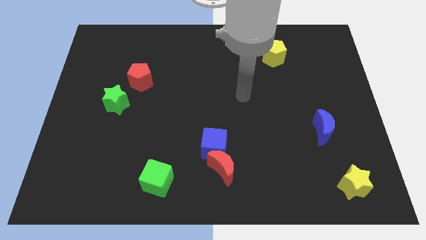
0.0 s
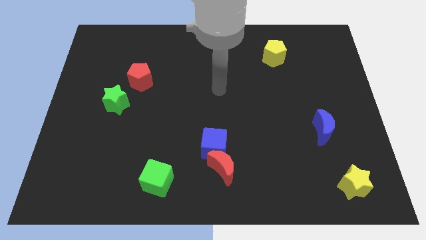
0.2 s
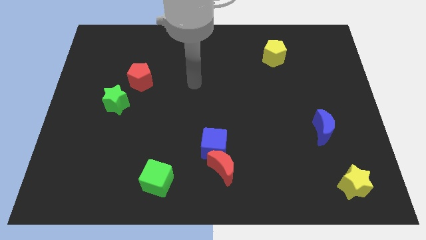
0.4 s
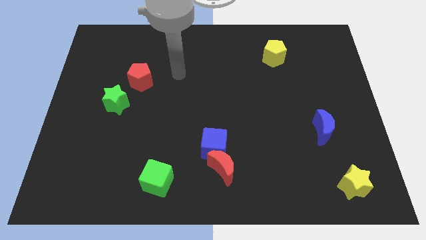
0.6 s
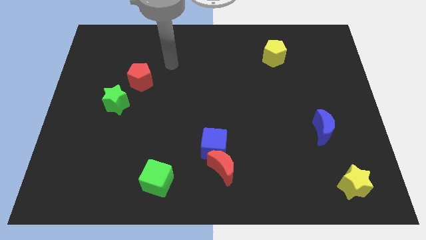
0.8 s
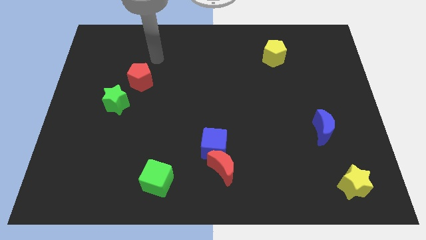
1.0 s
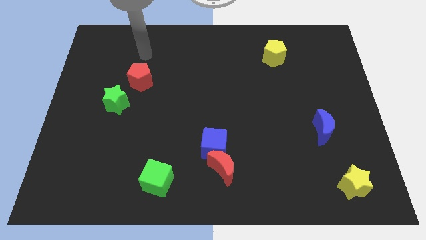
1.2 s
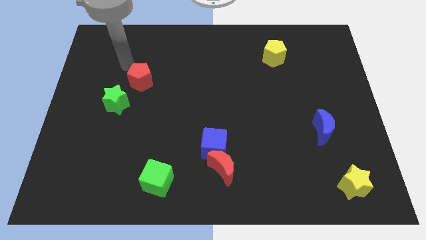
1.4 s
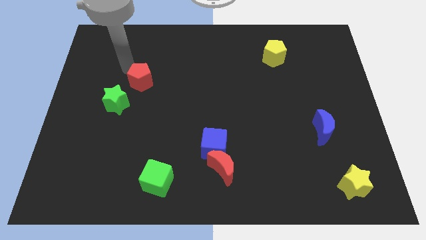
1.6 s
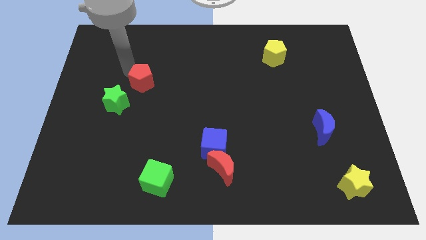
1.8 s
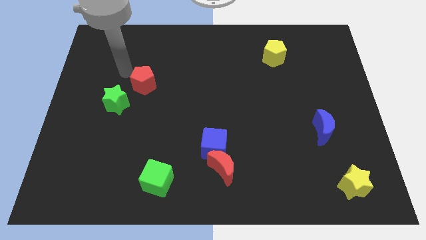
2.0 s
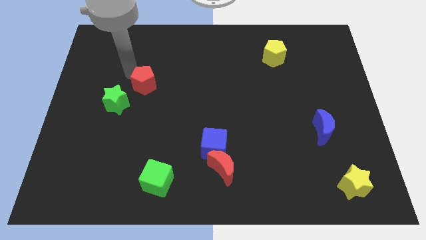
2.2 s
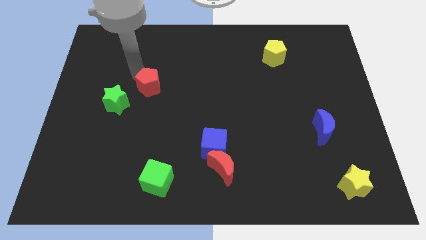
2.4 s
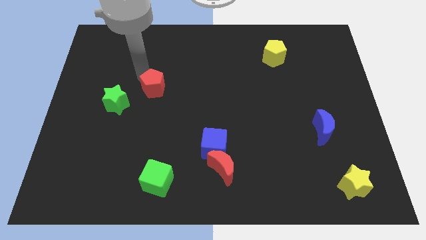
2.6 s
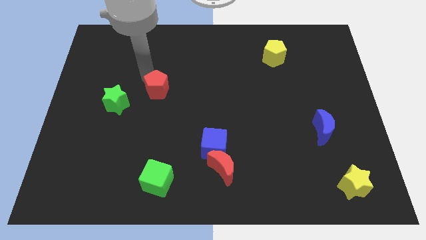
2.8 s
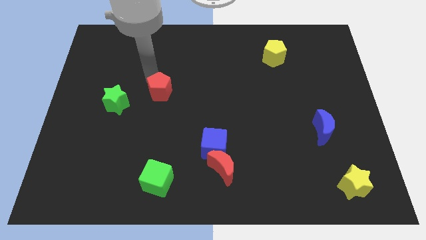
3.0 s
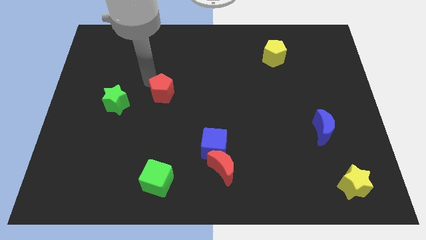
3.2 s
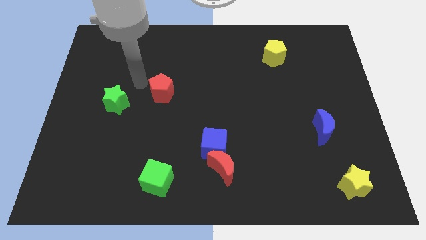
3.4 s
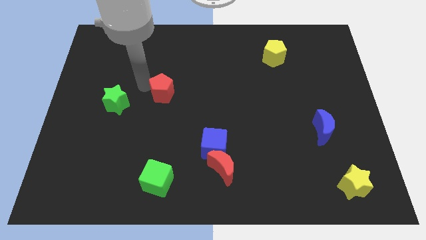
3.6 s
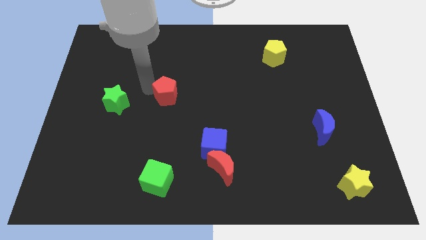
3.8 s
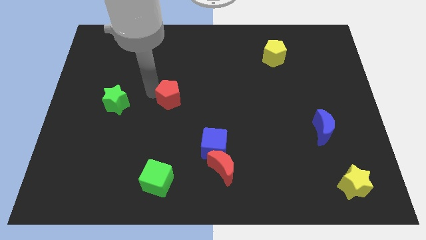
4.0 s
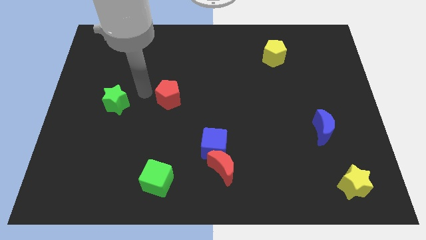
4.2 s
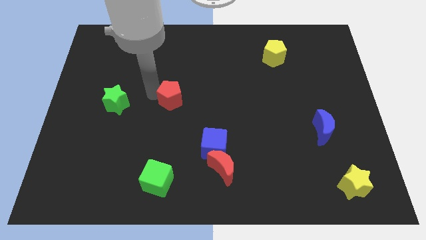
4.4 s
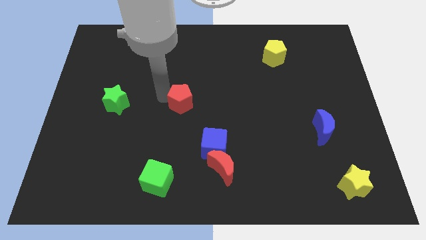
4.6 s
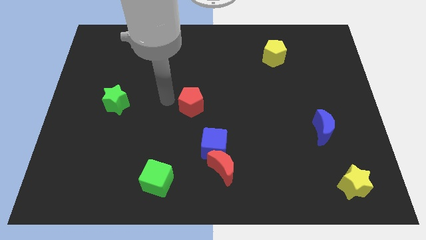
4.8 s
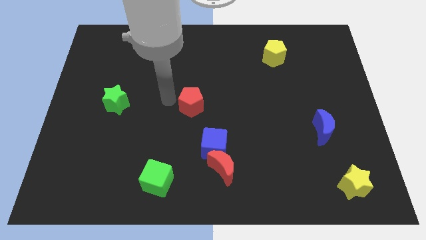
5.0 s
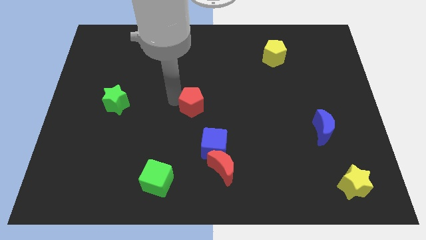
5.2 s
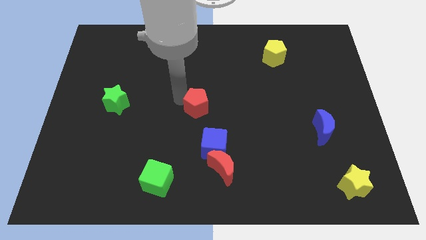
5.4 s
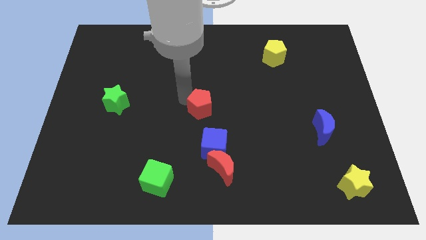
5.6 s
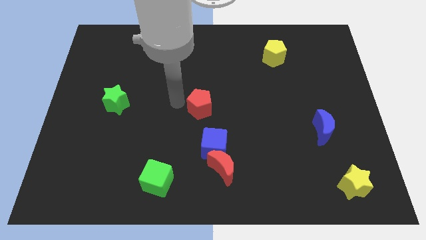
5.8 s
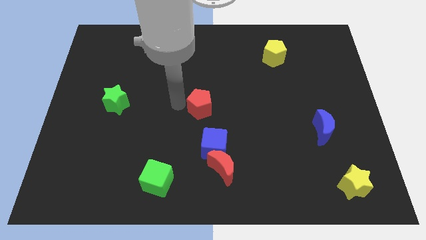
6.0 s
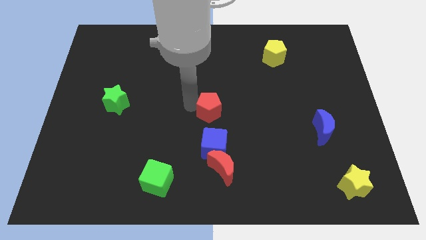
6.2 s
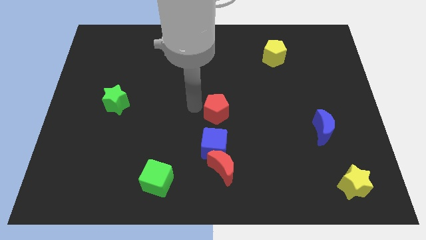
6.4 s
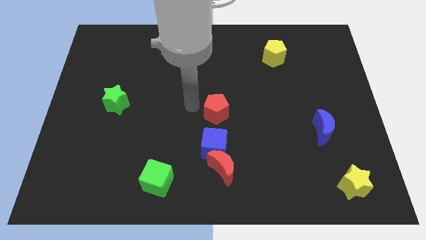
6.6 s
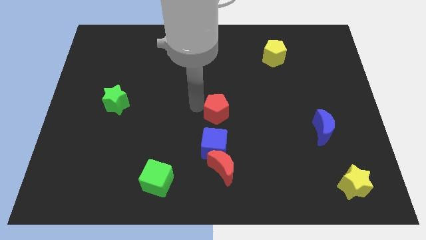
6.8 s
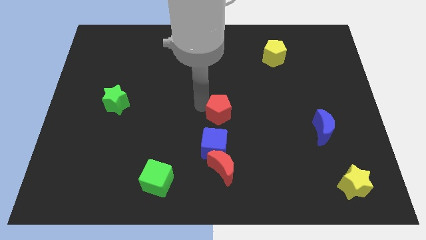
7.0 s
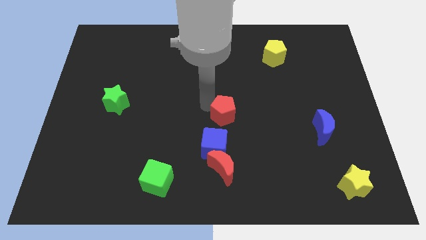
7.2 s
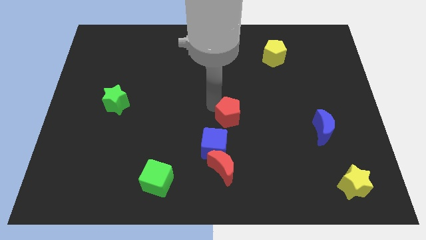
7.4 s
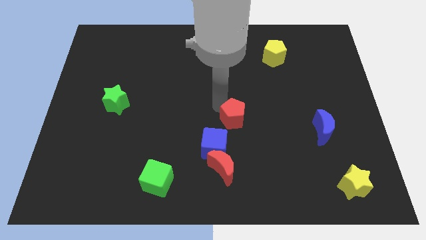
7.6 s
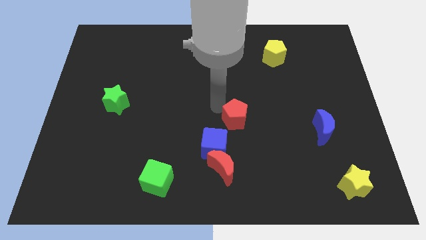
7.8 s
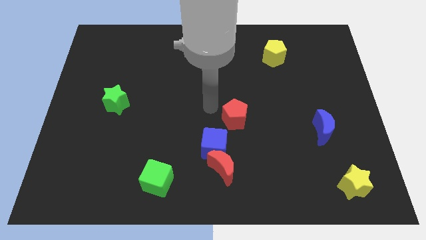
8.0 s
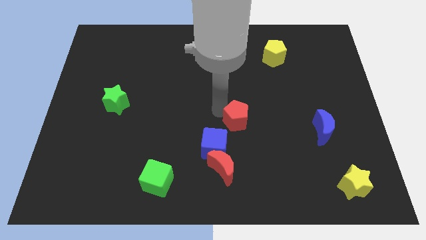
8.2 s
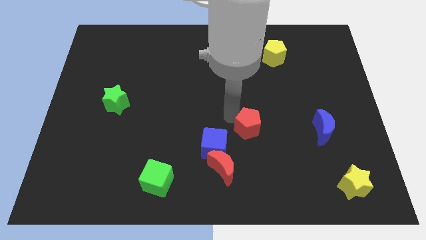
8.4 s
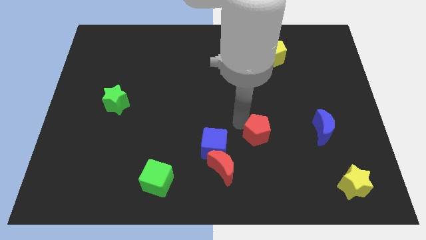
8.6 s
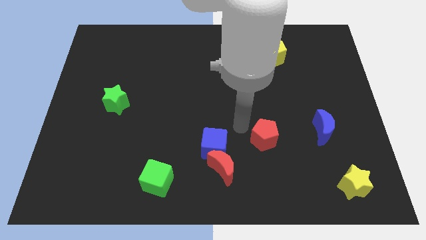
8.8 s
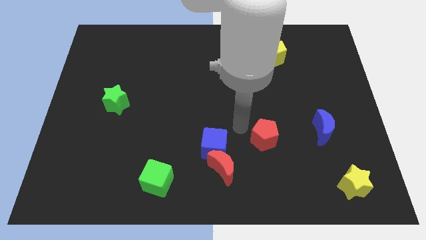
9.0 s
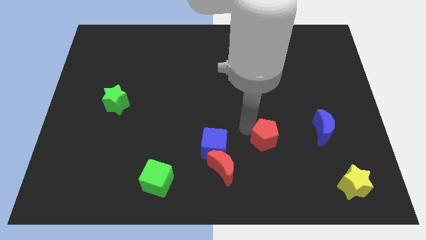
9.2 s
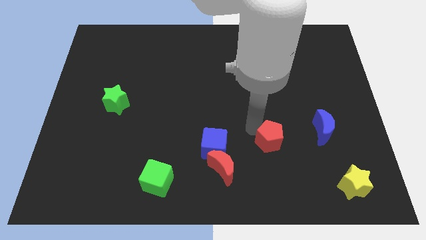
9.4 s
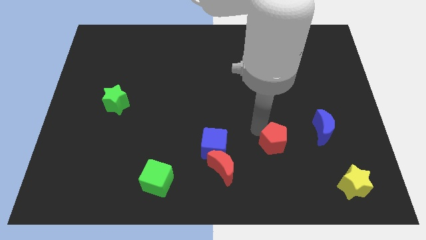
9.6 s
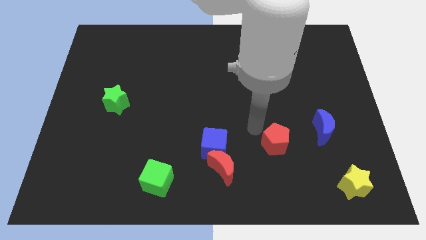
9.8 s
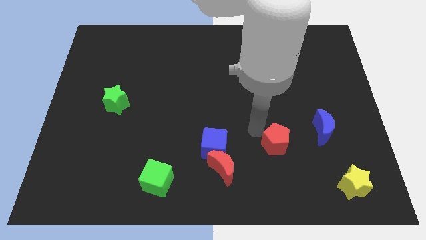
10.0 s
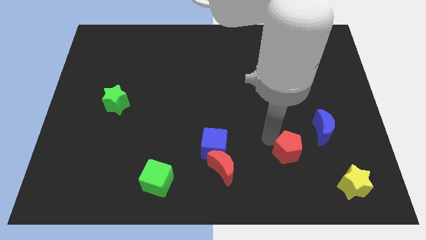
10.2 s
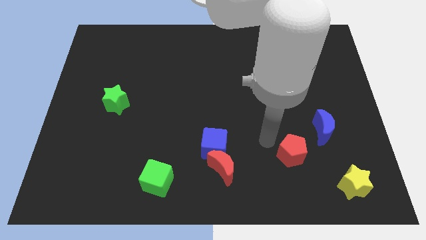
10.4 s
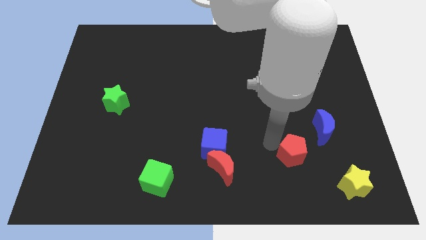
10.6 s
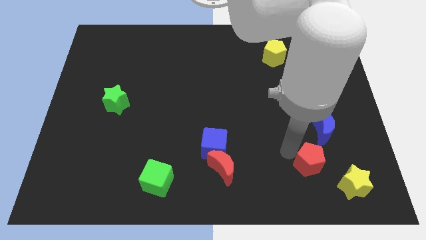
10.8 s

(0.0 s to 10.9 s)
put the red pentagon below the blue moon

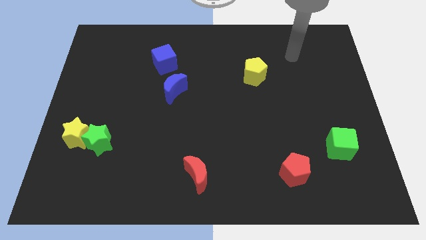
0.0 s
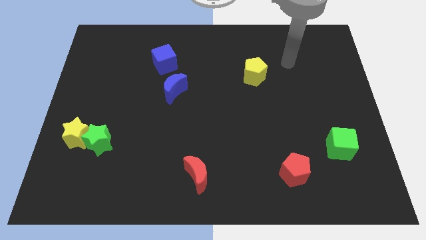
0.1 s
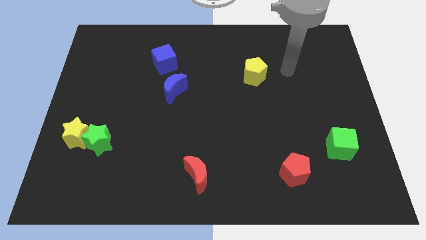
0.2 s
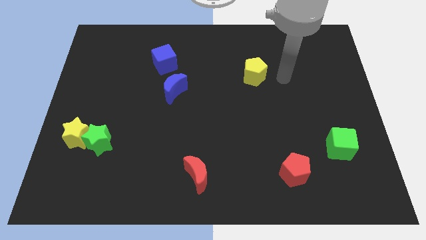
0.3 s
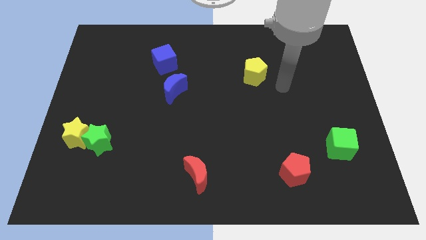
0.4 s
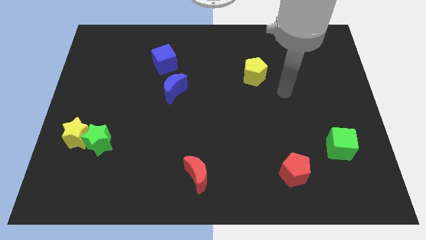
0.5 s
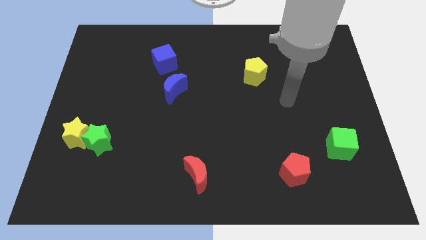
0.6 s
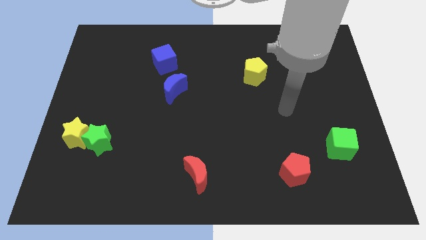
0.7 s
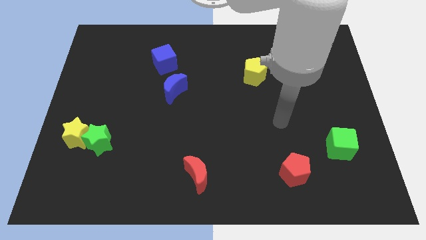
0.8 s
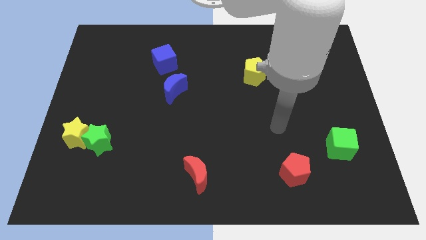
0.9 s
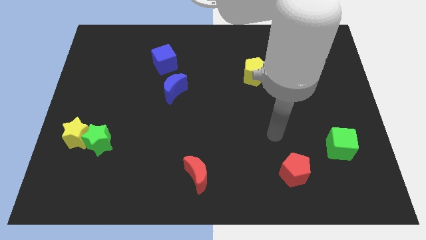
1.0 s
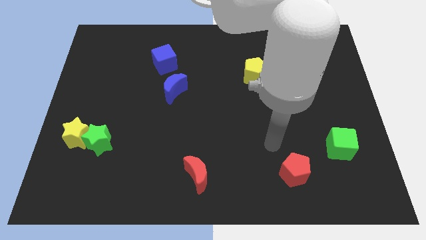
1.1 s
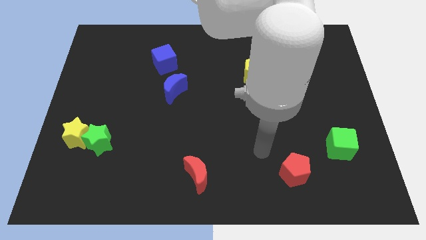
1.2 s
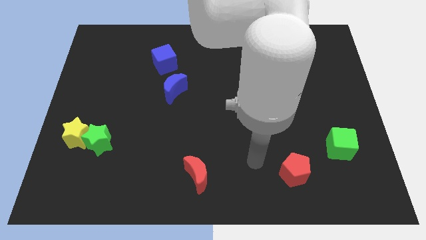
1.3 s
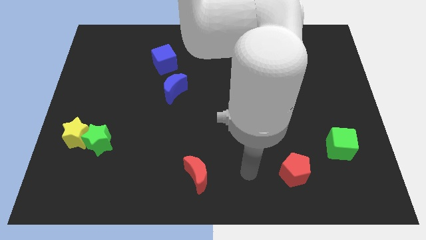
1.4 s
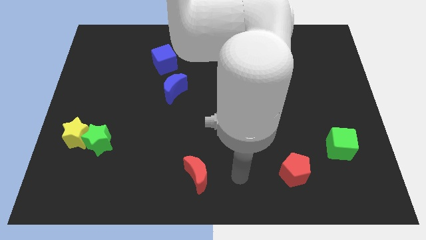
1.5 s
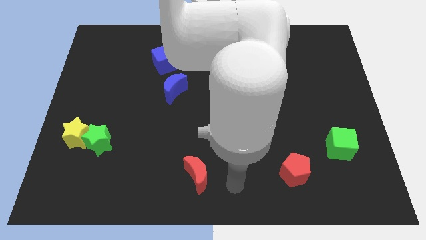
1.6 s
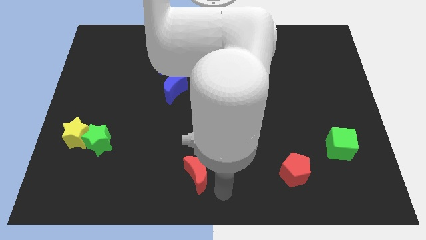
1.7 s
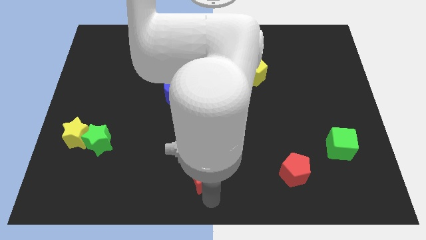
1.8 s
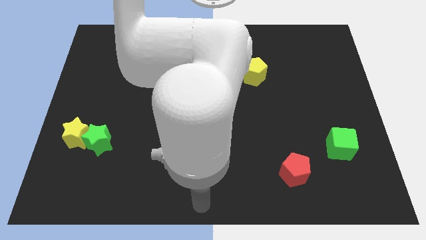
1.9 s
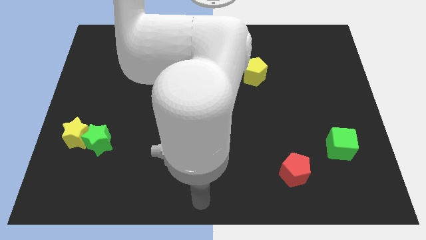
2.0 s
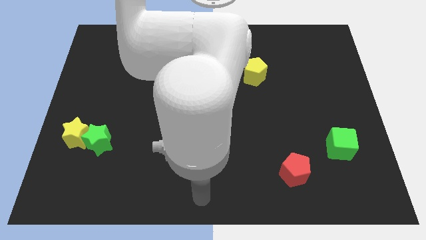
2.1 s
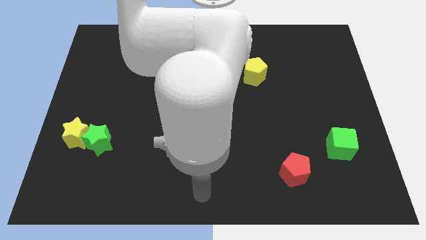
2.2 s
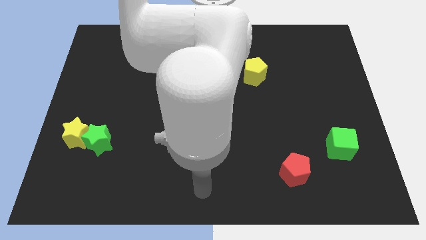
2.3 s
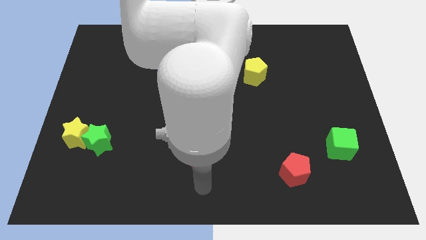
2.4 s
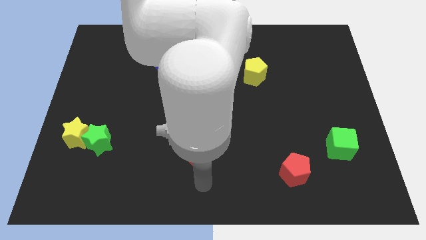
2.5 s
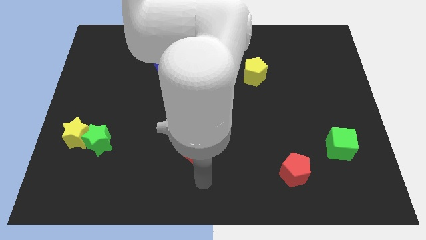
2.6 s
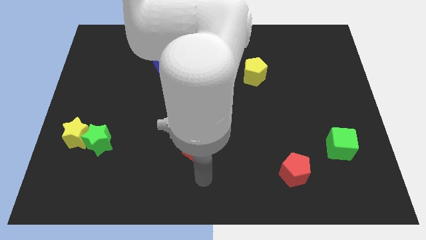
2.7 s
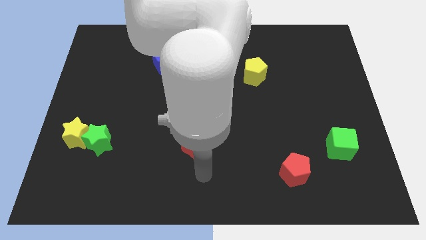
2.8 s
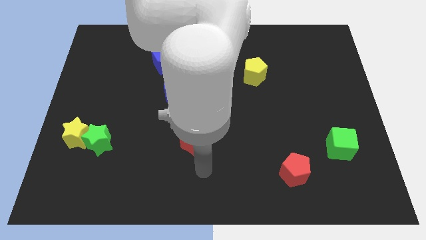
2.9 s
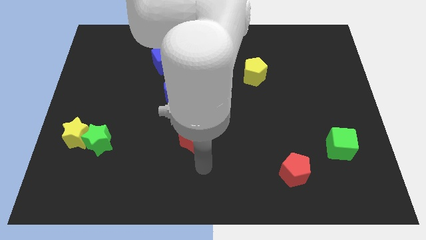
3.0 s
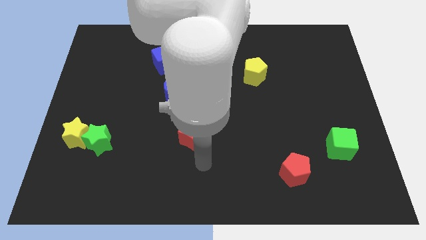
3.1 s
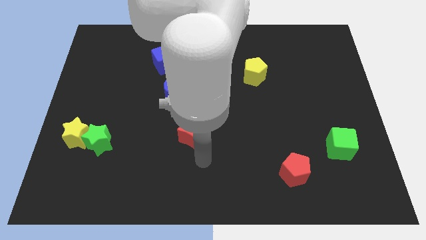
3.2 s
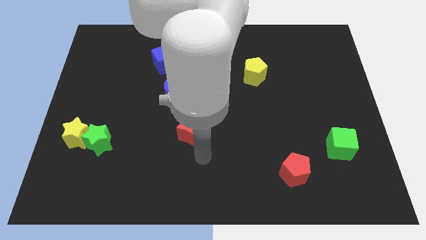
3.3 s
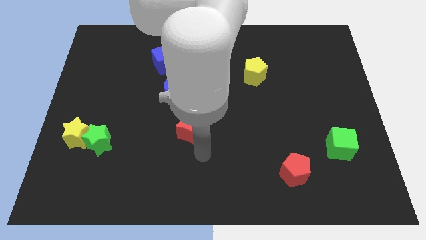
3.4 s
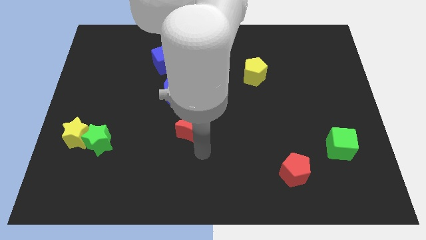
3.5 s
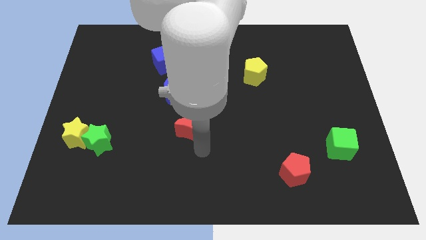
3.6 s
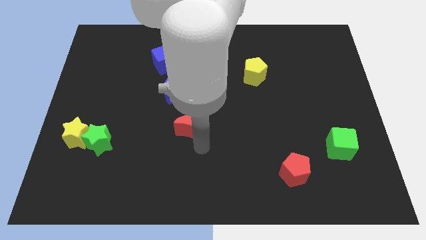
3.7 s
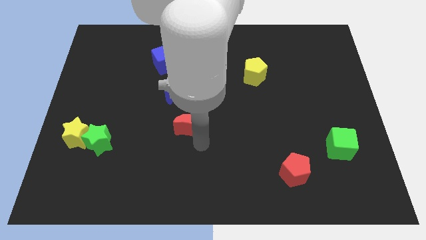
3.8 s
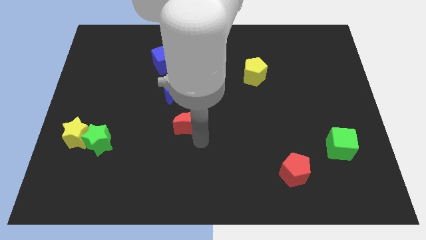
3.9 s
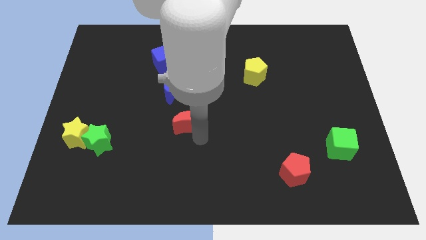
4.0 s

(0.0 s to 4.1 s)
put the red moon to the bottom right side of the blue moon
